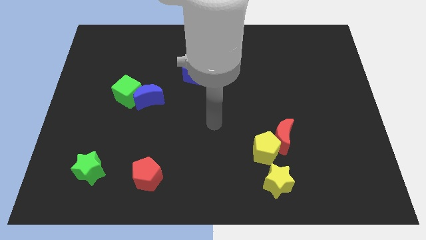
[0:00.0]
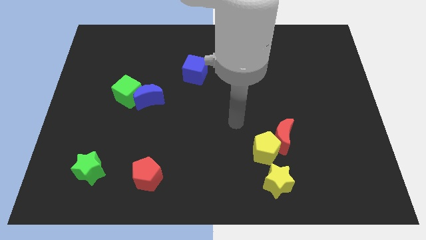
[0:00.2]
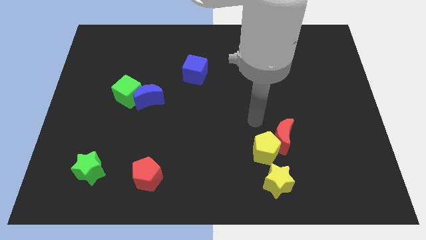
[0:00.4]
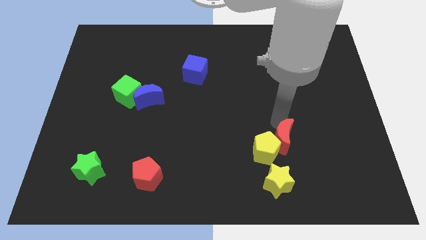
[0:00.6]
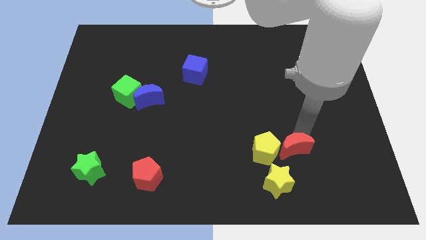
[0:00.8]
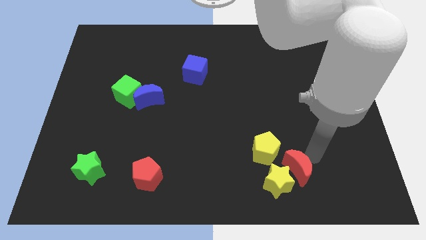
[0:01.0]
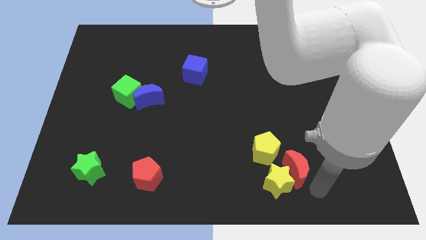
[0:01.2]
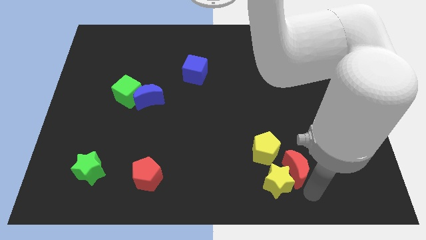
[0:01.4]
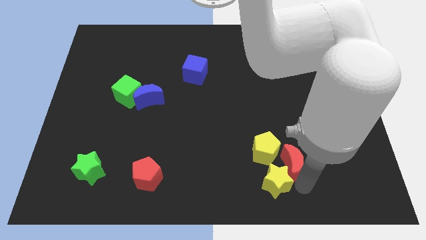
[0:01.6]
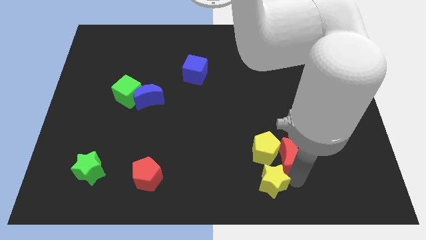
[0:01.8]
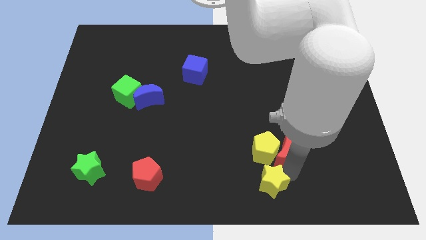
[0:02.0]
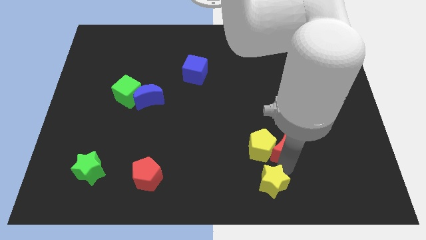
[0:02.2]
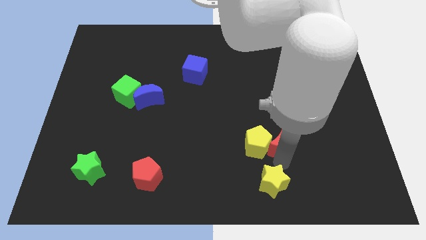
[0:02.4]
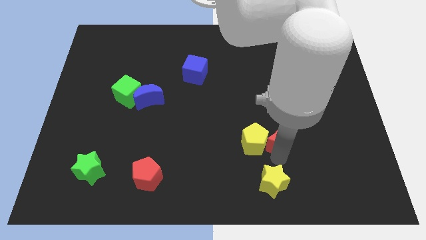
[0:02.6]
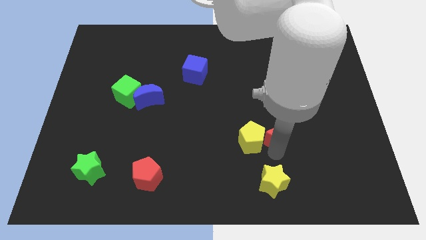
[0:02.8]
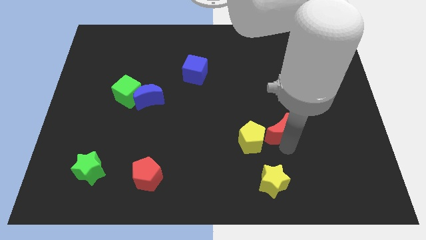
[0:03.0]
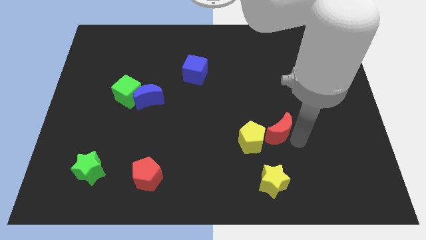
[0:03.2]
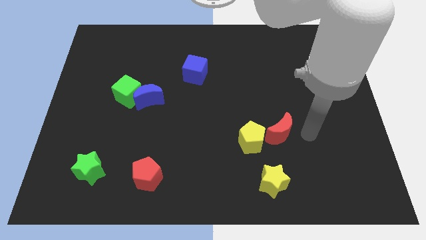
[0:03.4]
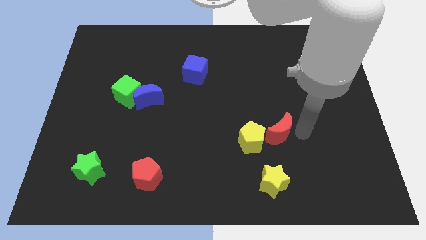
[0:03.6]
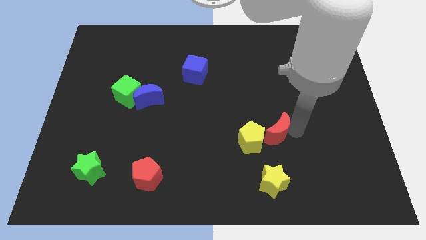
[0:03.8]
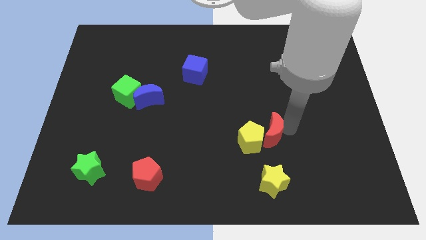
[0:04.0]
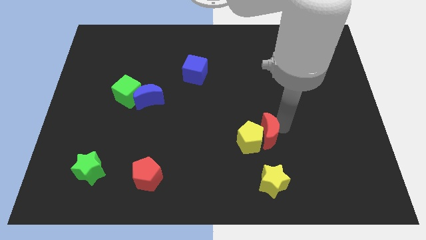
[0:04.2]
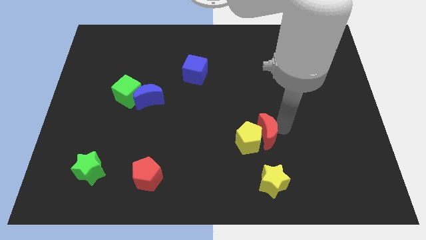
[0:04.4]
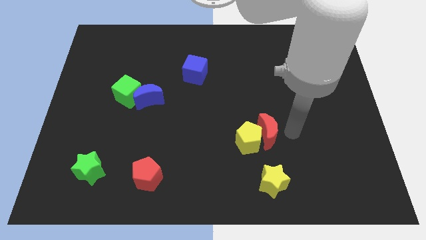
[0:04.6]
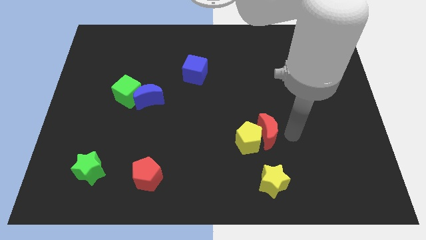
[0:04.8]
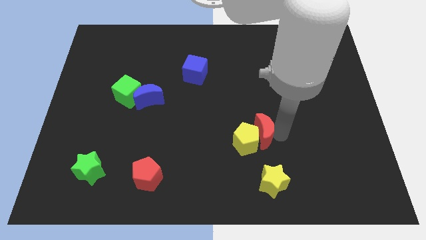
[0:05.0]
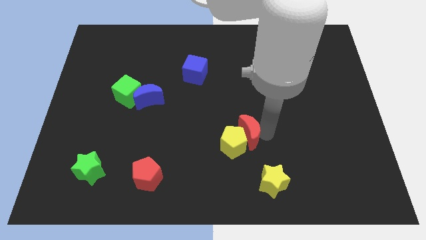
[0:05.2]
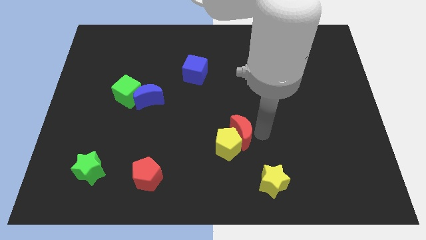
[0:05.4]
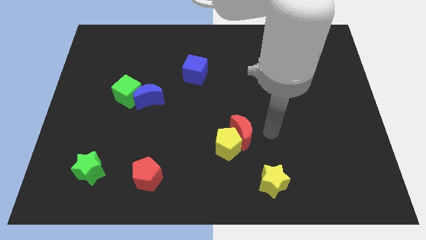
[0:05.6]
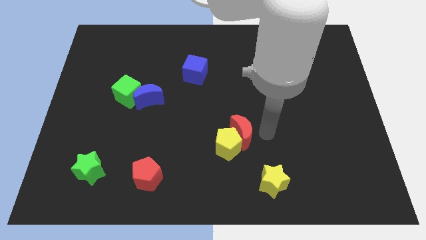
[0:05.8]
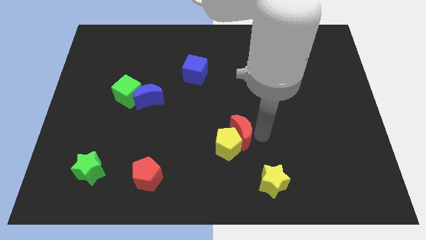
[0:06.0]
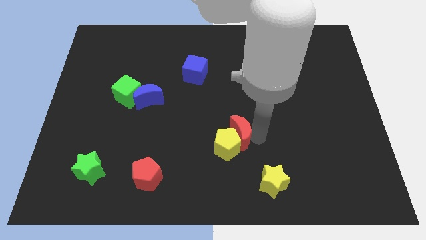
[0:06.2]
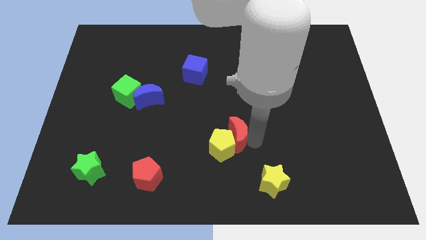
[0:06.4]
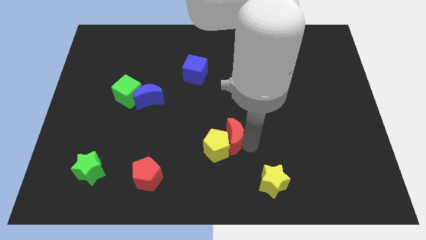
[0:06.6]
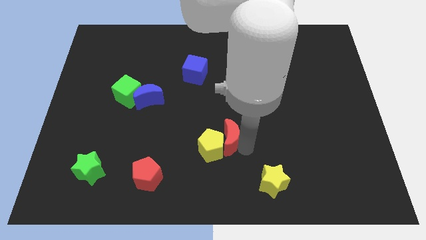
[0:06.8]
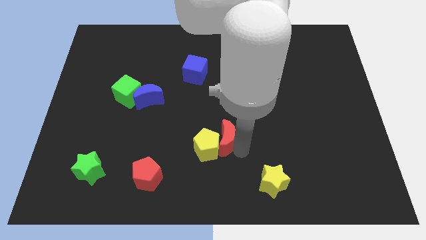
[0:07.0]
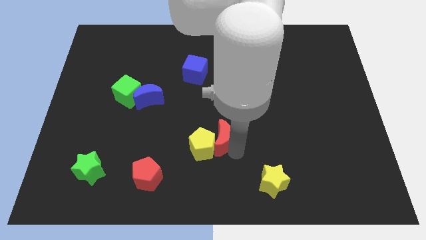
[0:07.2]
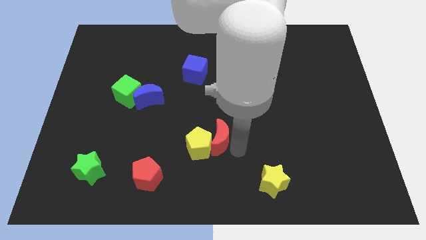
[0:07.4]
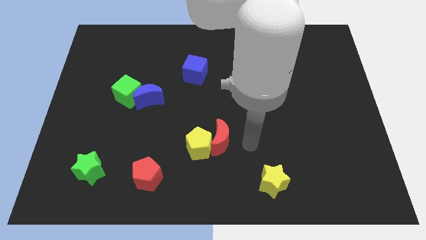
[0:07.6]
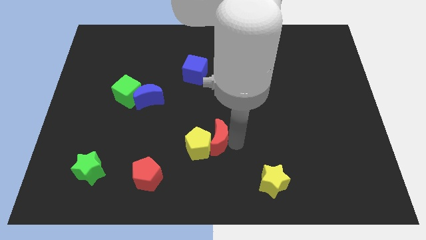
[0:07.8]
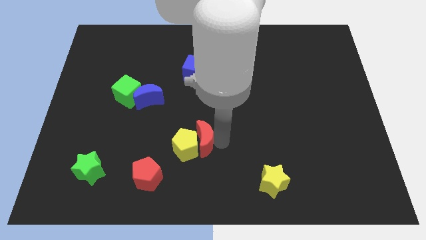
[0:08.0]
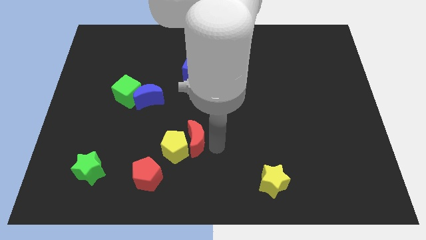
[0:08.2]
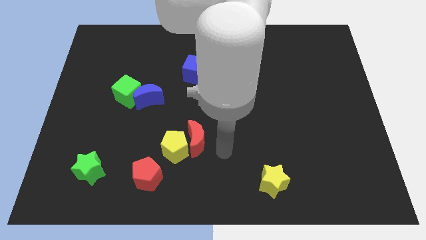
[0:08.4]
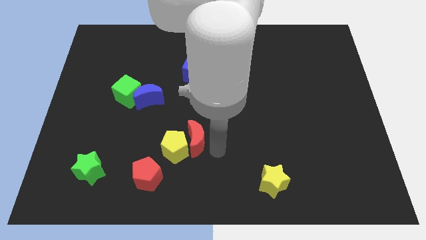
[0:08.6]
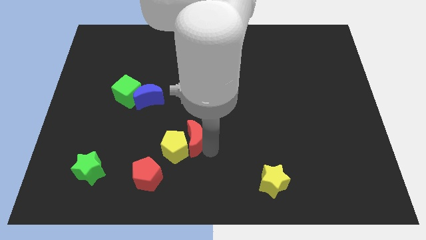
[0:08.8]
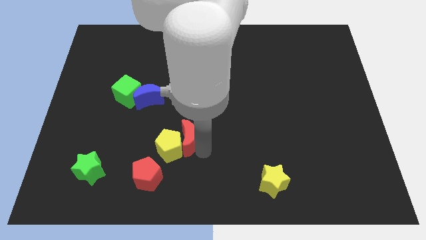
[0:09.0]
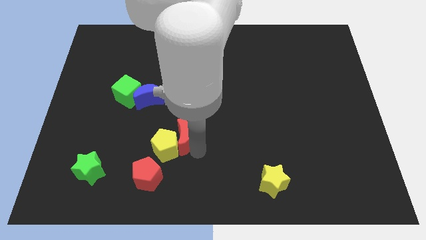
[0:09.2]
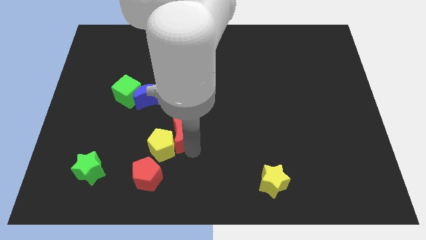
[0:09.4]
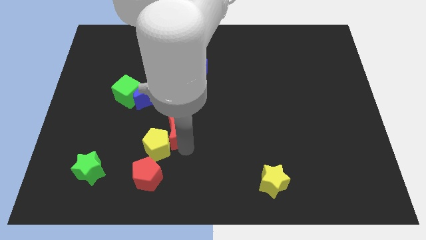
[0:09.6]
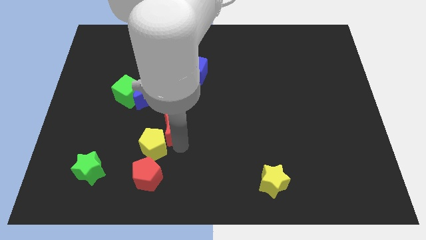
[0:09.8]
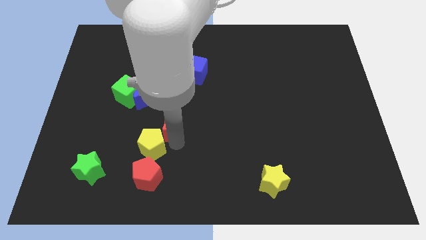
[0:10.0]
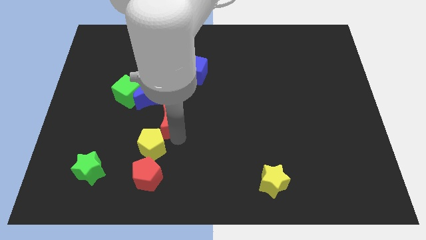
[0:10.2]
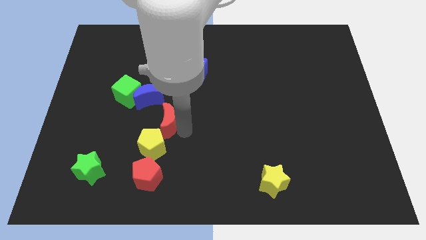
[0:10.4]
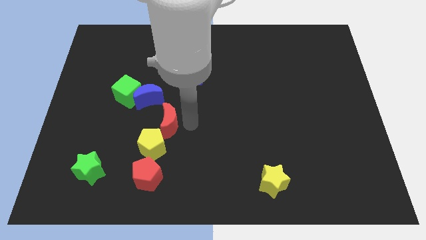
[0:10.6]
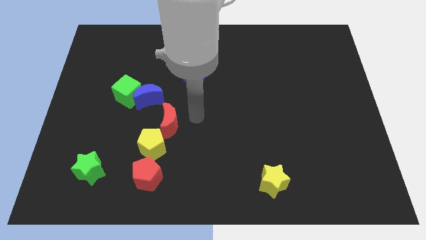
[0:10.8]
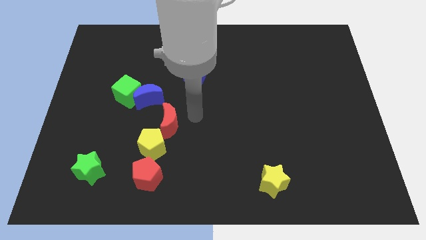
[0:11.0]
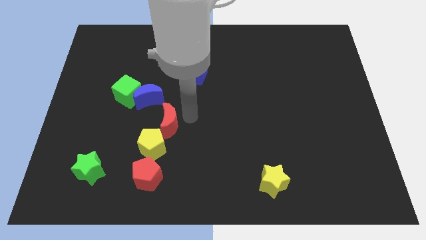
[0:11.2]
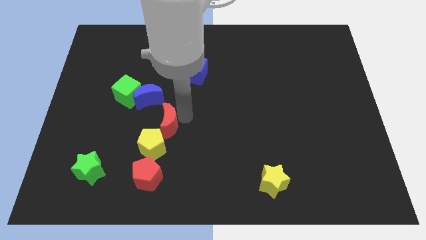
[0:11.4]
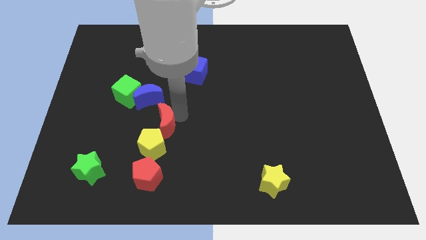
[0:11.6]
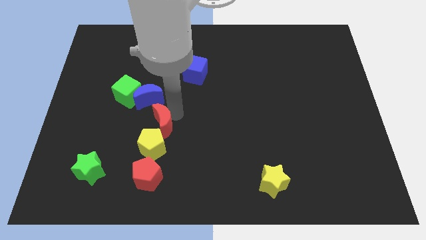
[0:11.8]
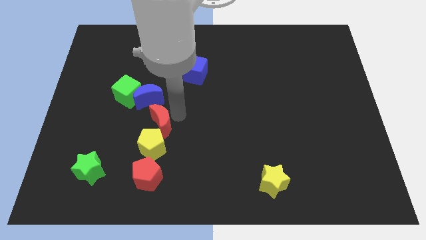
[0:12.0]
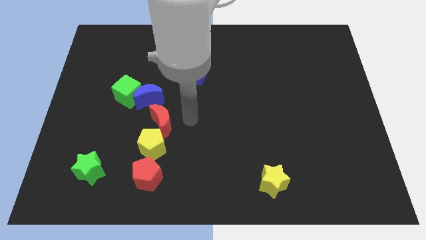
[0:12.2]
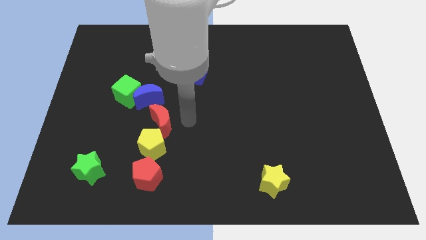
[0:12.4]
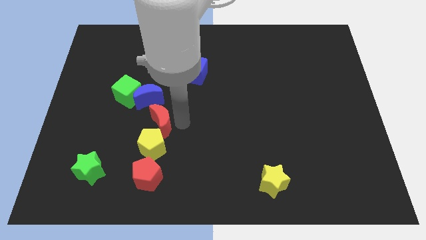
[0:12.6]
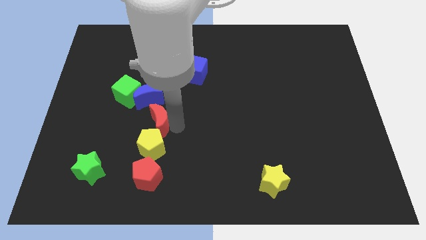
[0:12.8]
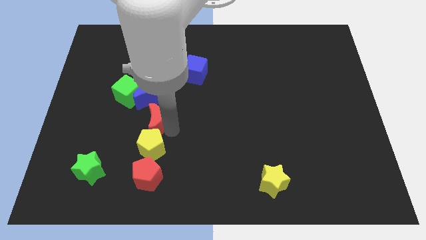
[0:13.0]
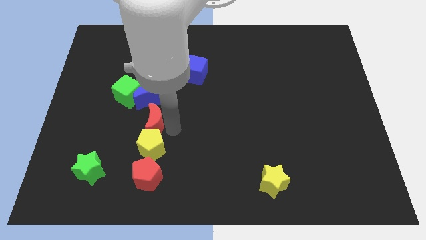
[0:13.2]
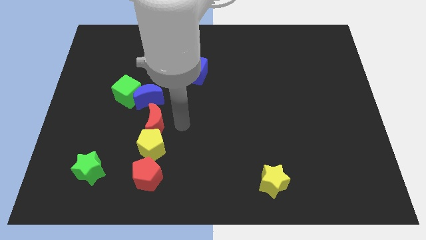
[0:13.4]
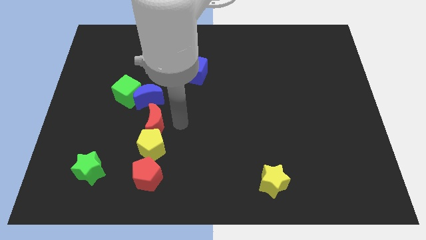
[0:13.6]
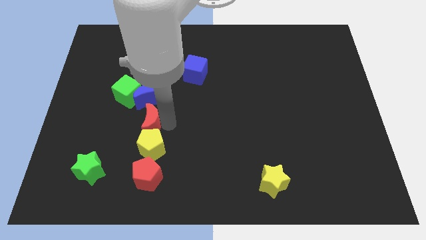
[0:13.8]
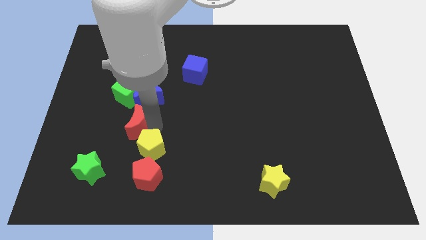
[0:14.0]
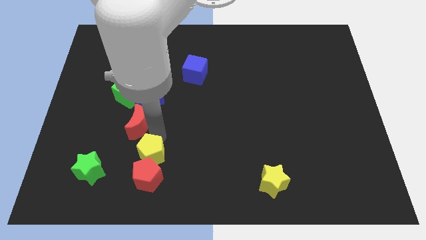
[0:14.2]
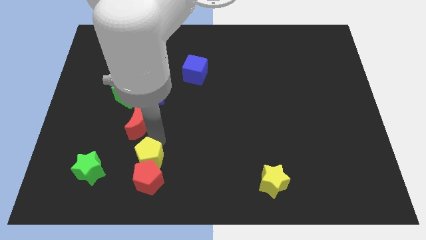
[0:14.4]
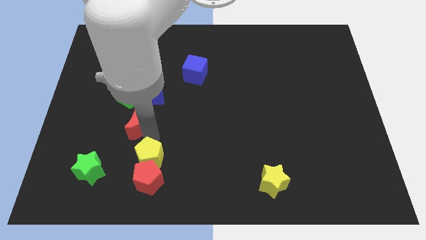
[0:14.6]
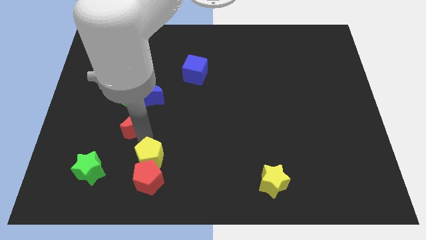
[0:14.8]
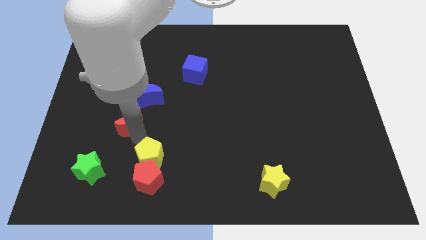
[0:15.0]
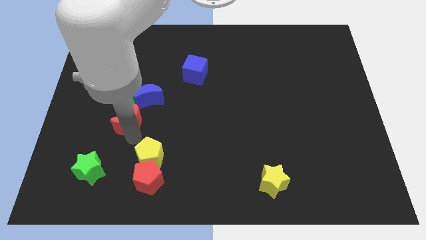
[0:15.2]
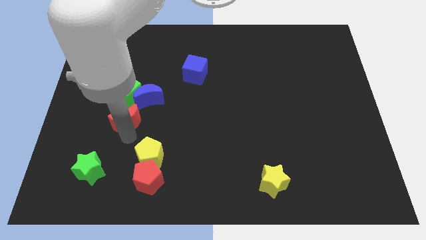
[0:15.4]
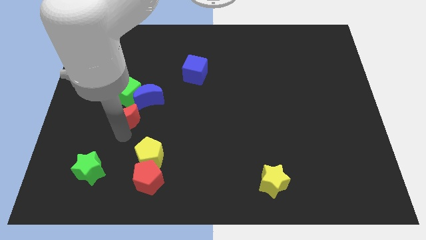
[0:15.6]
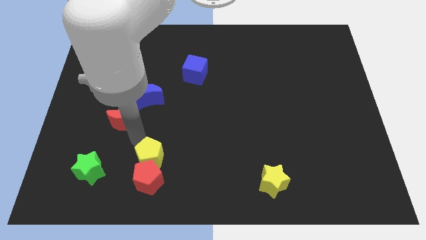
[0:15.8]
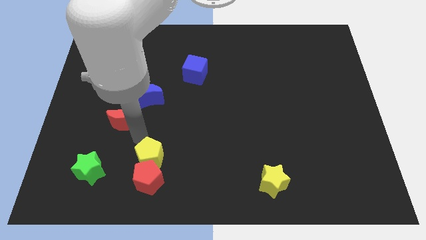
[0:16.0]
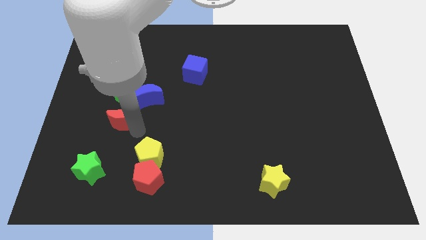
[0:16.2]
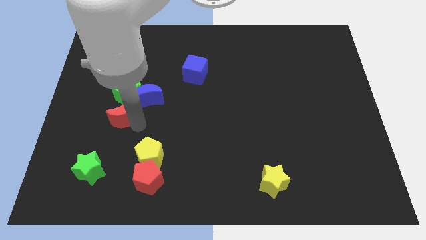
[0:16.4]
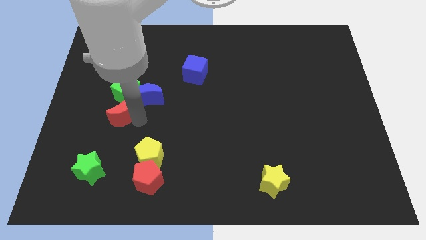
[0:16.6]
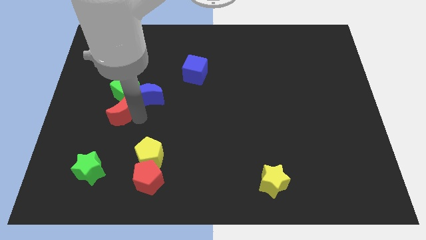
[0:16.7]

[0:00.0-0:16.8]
put the red moon left of the blue moon
